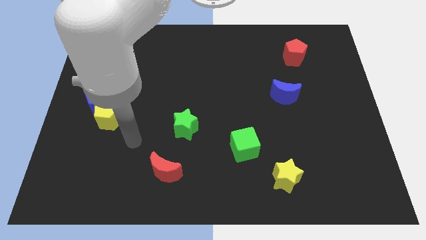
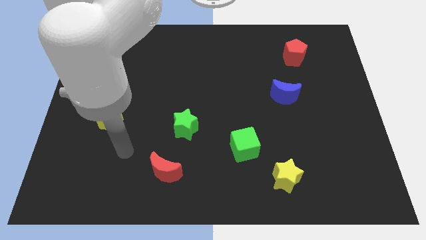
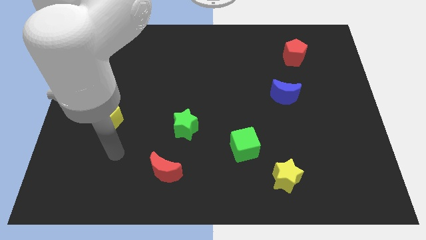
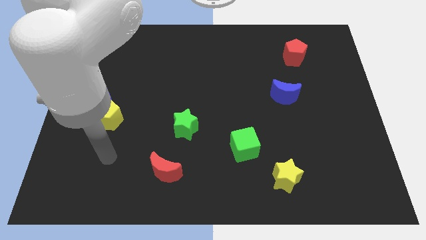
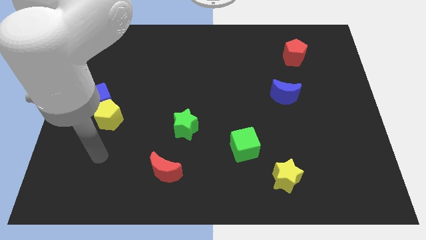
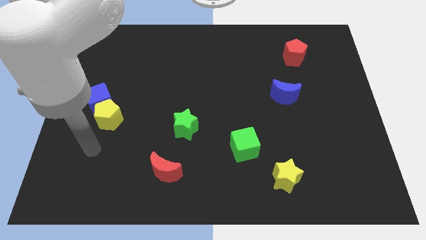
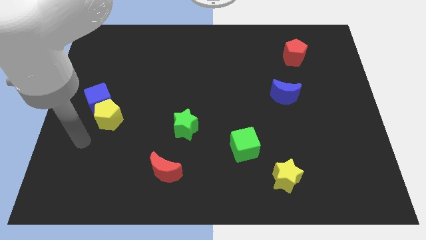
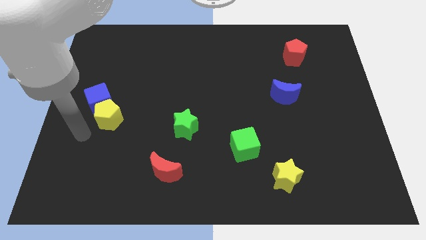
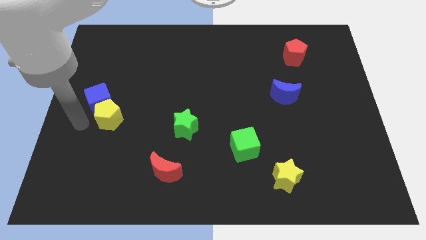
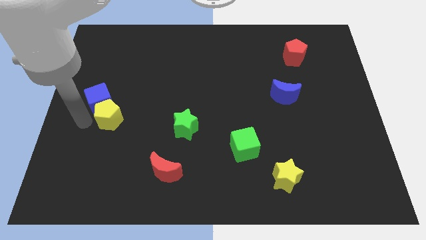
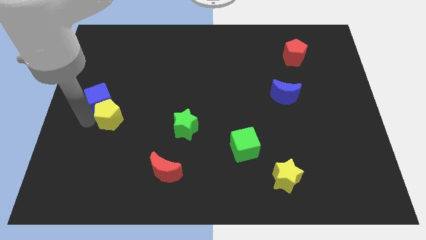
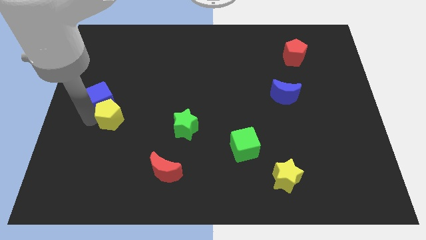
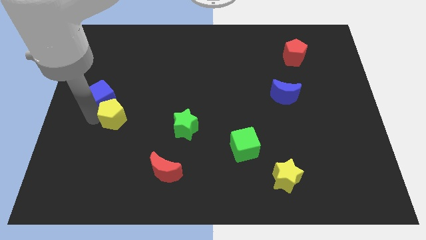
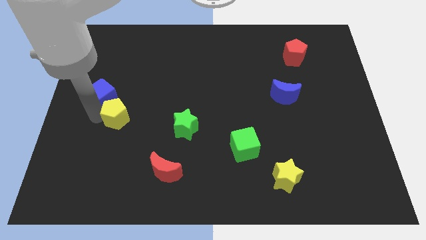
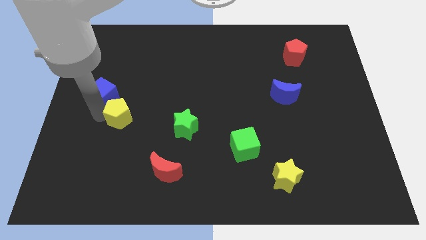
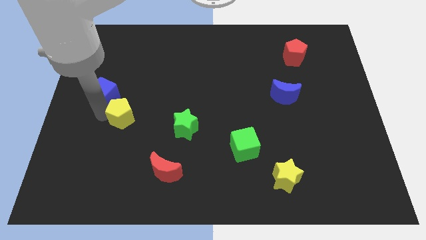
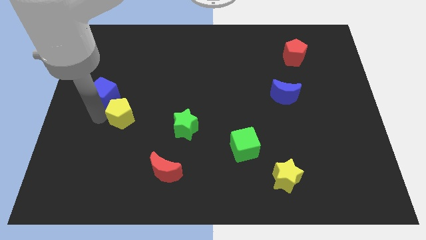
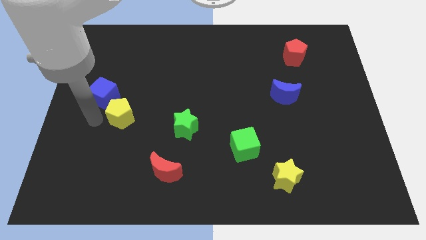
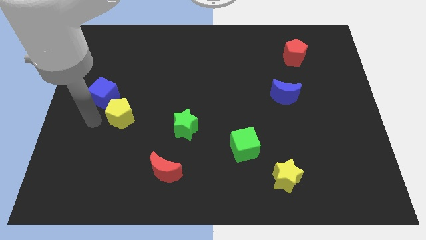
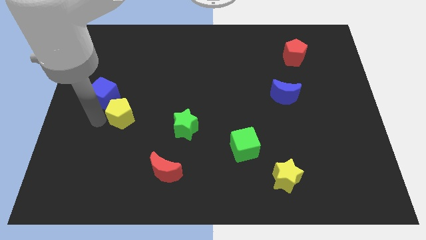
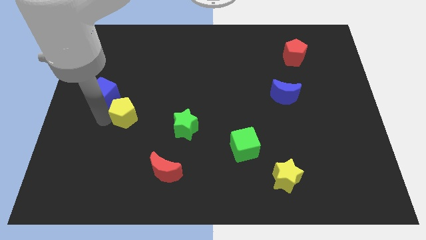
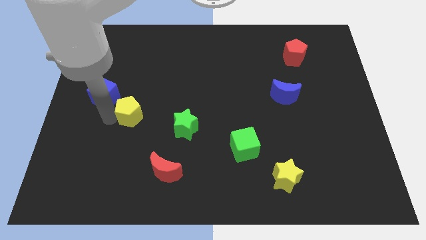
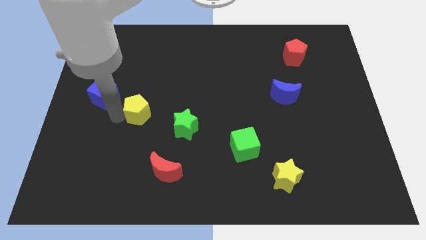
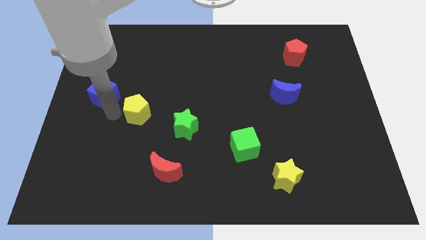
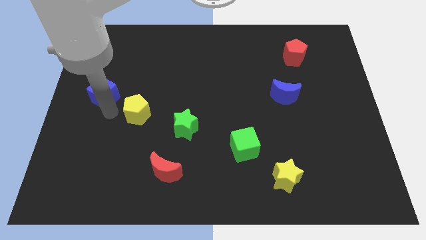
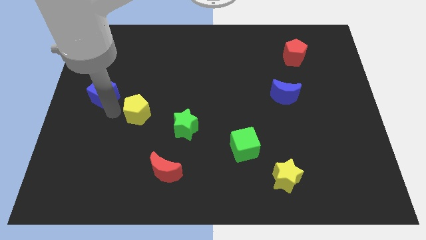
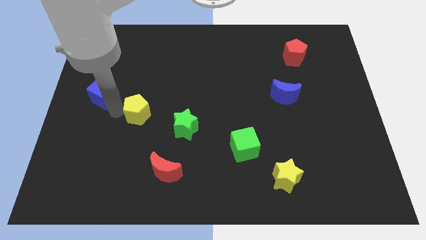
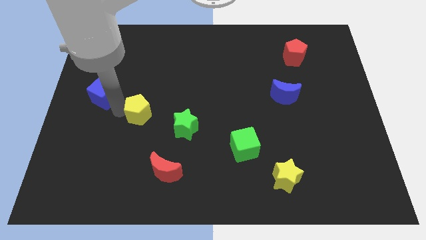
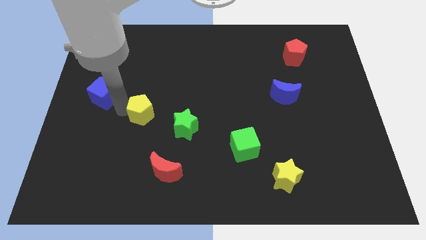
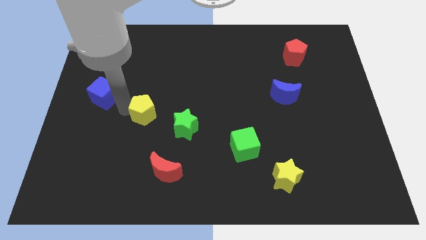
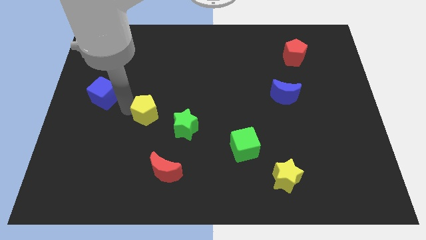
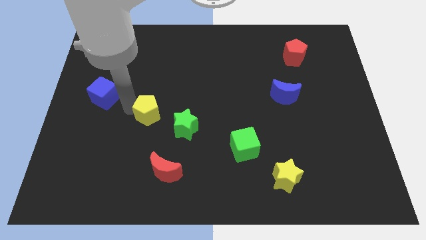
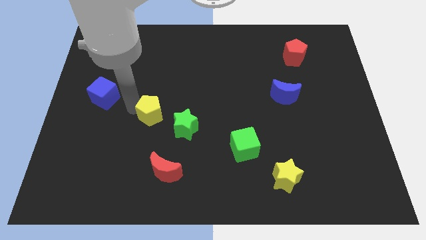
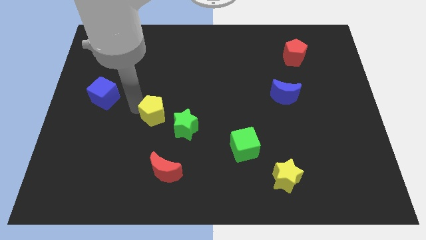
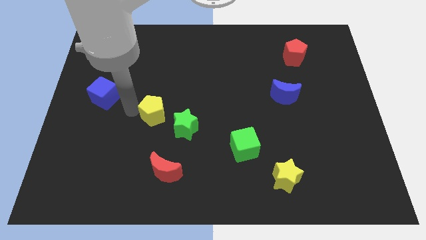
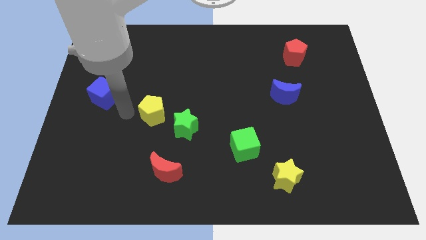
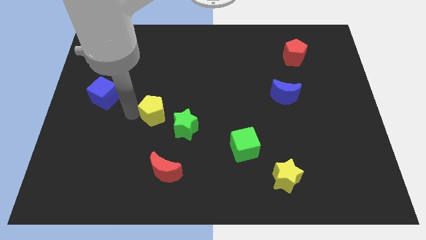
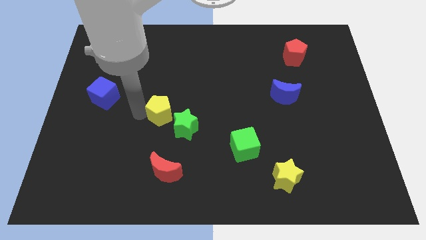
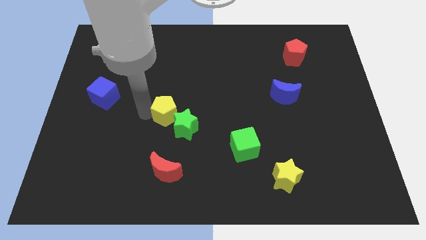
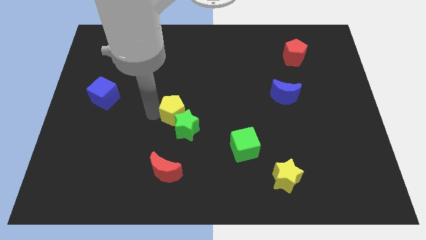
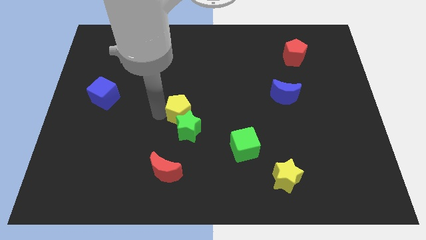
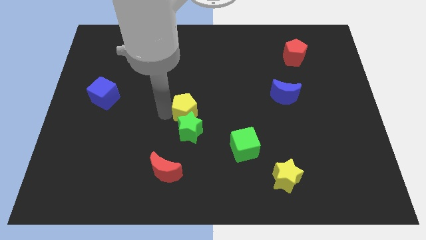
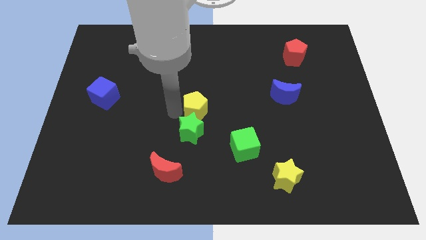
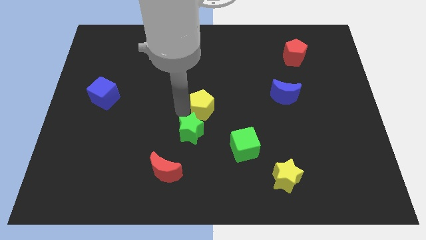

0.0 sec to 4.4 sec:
move the yellow pentagon right

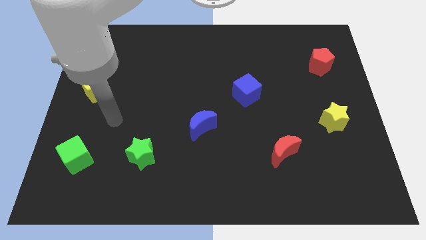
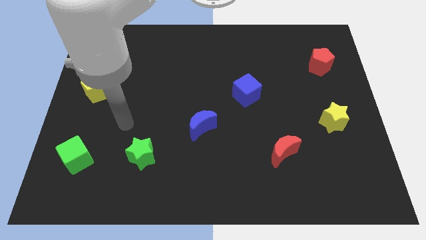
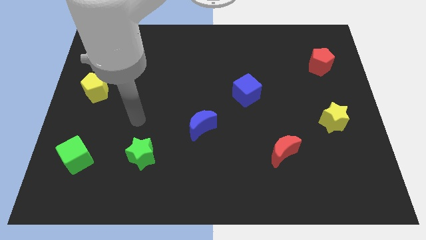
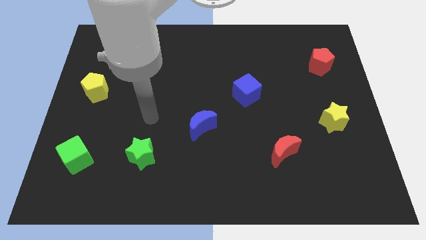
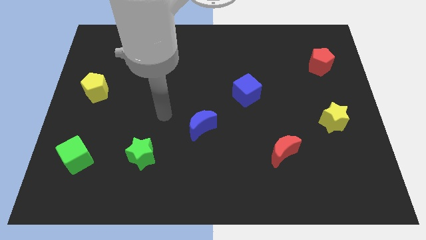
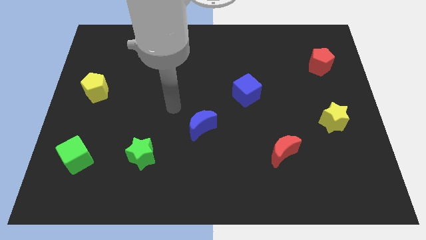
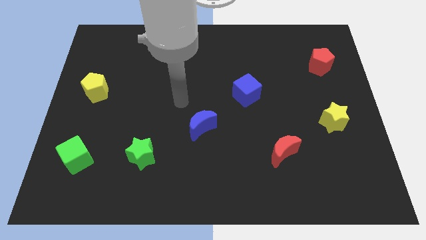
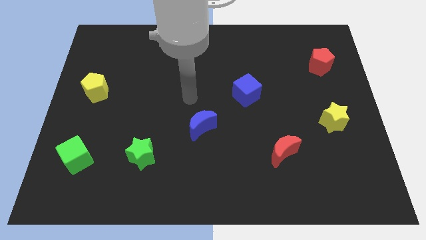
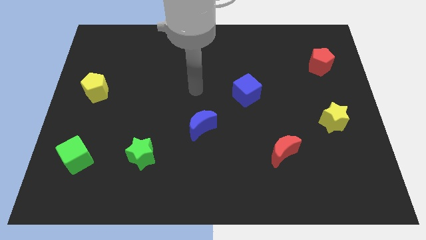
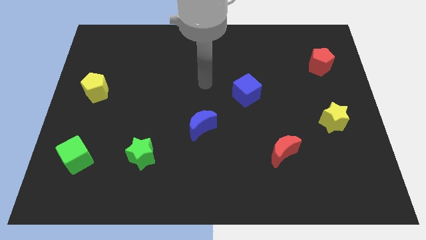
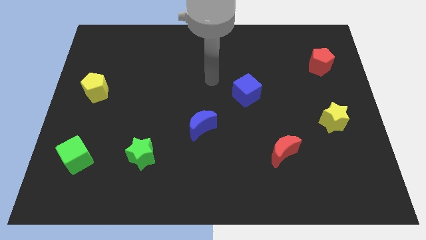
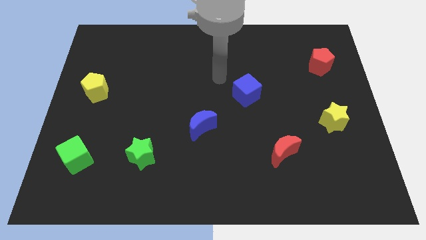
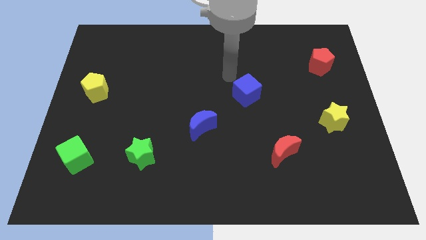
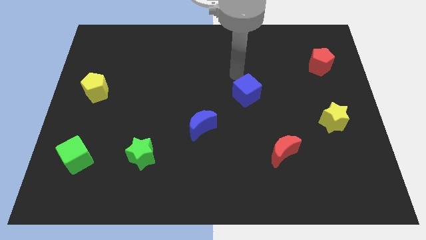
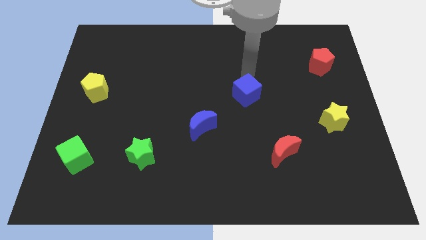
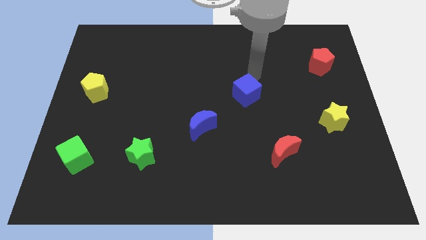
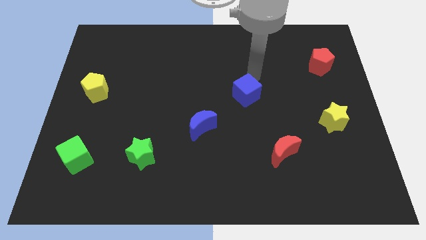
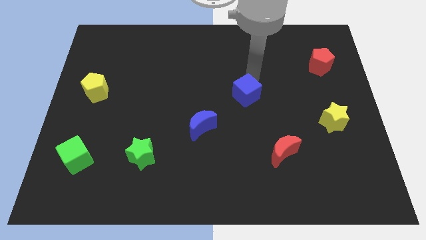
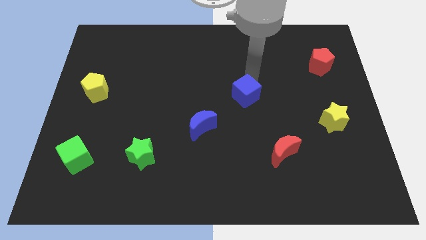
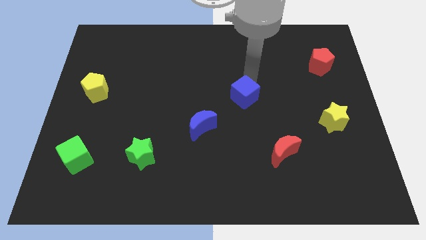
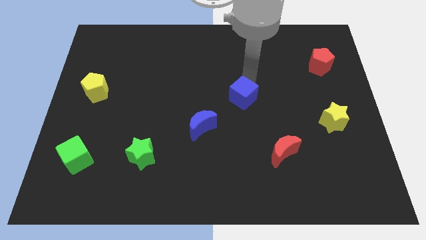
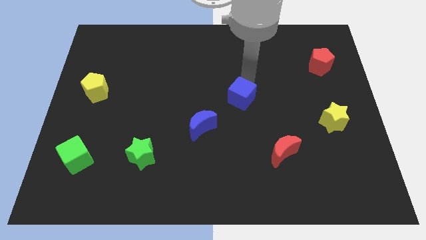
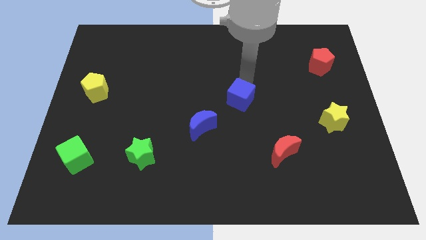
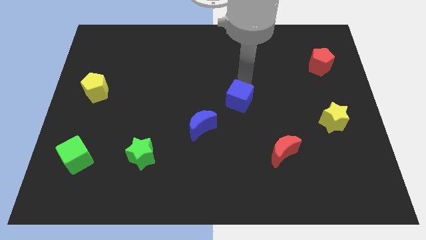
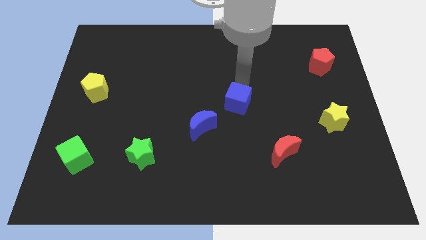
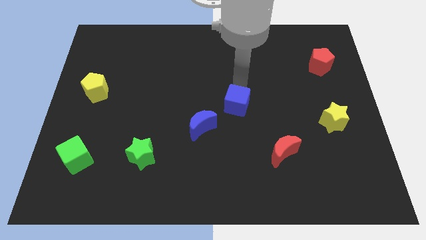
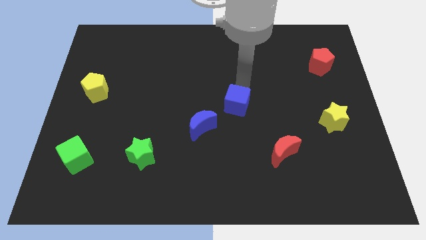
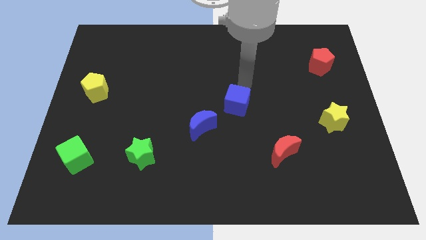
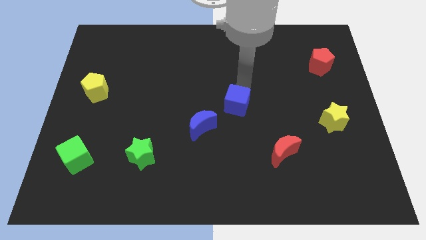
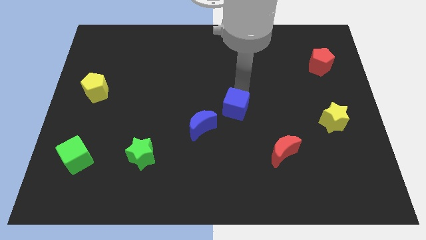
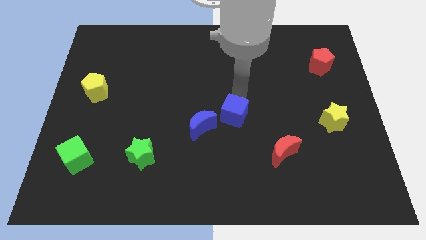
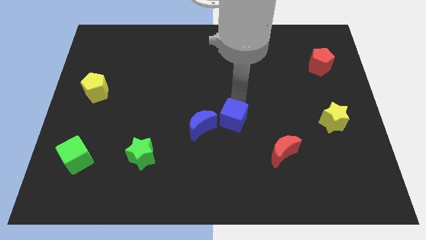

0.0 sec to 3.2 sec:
slide the blue cube downwards and then left a little bit

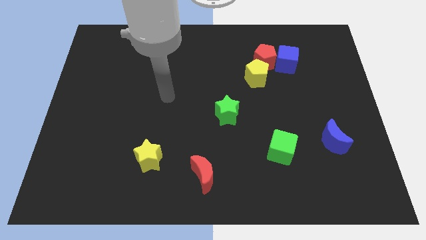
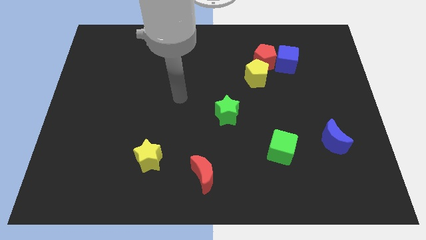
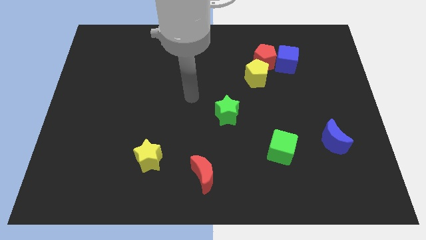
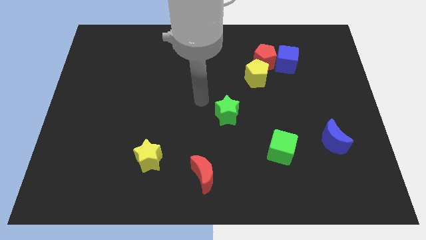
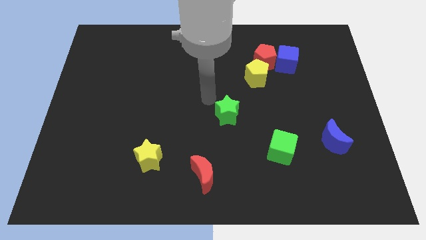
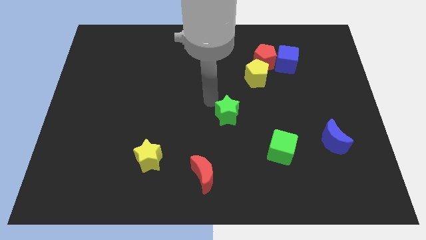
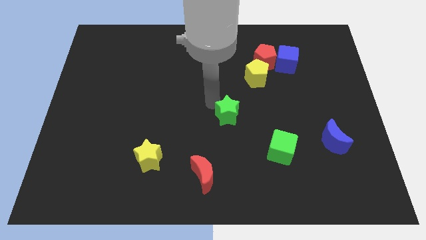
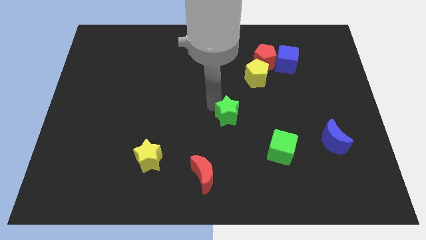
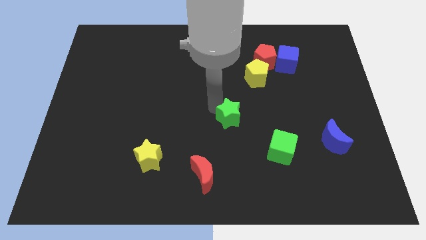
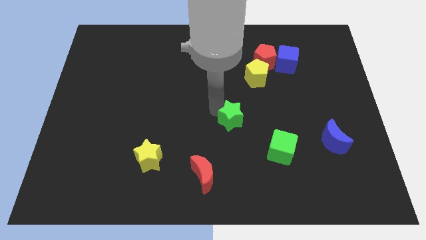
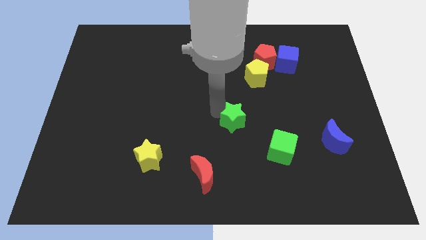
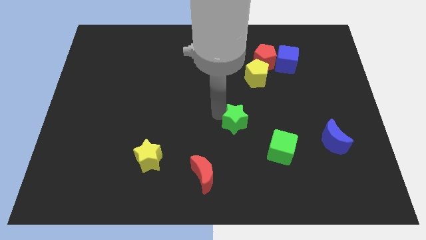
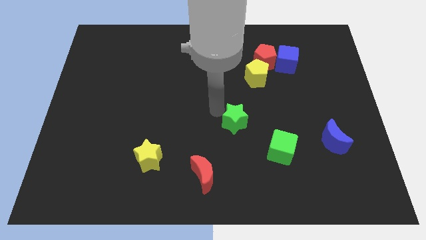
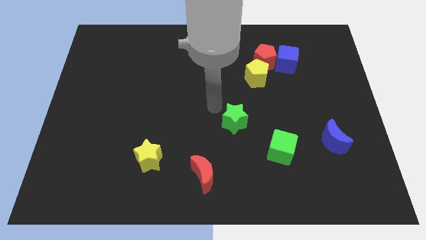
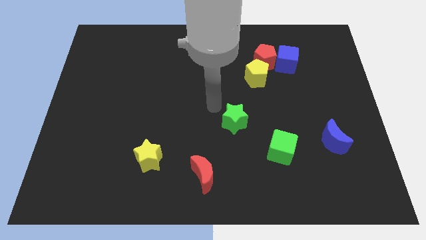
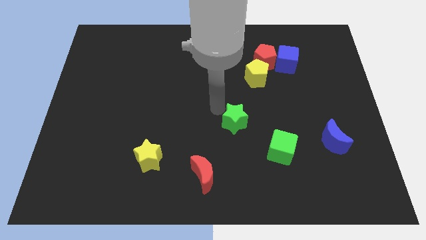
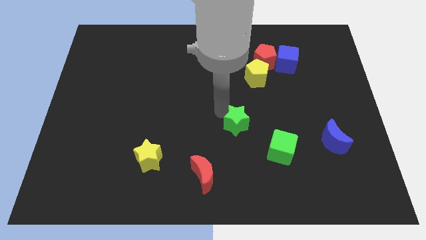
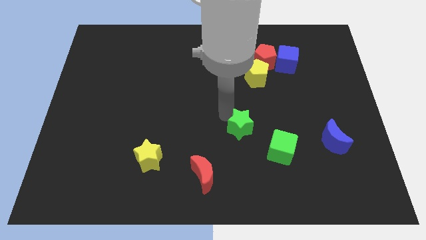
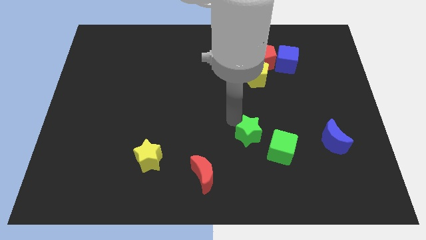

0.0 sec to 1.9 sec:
move the green star slightly diagonally down and to the right
